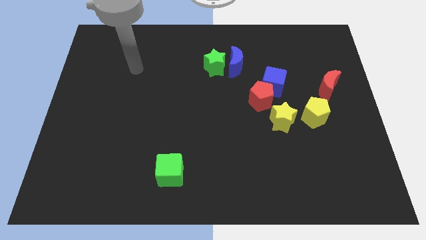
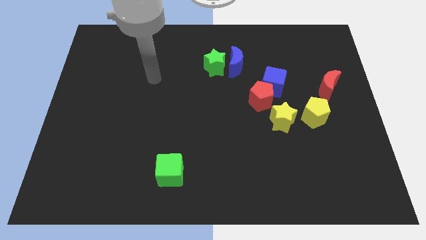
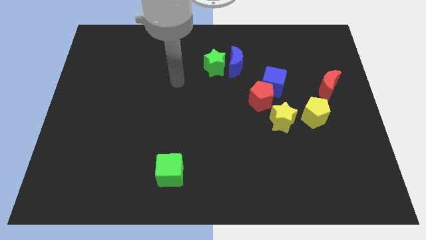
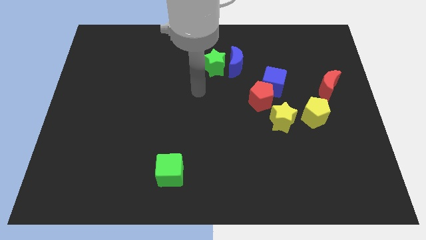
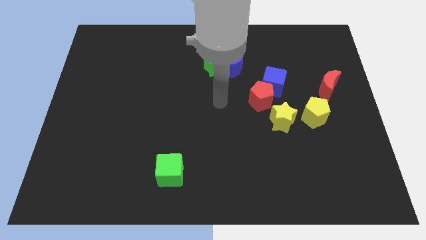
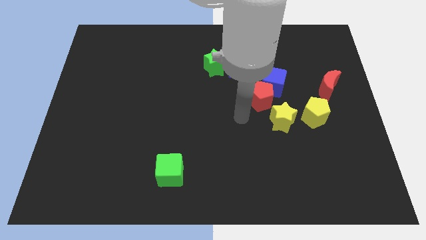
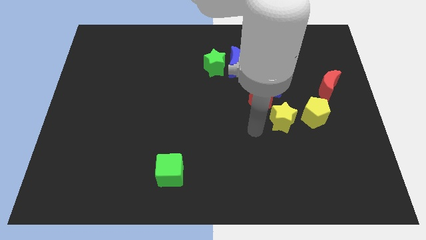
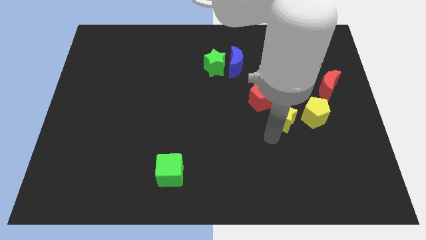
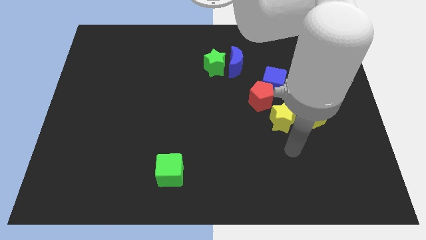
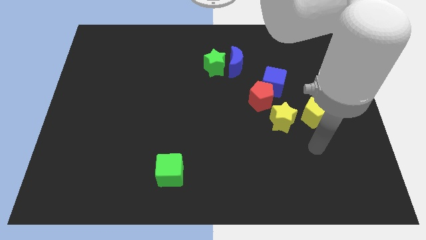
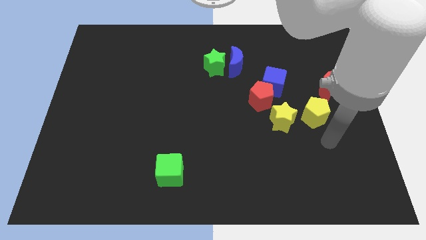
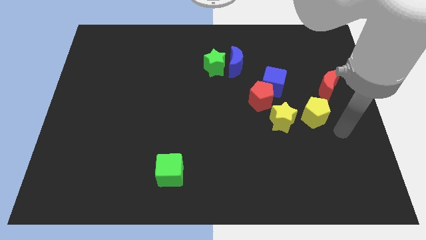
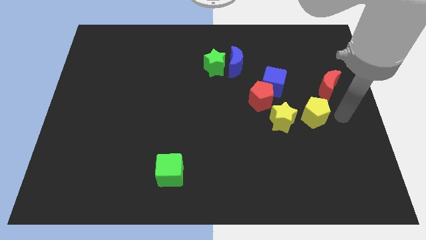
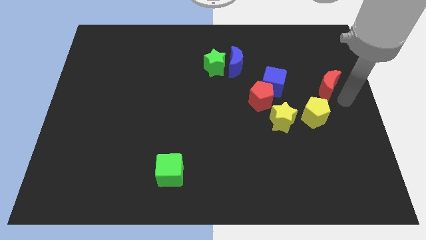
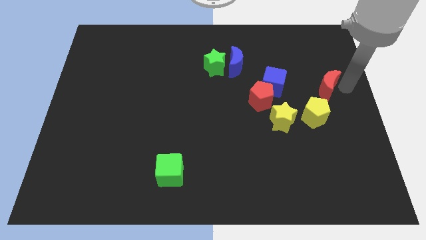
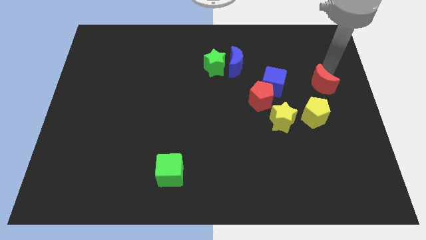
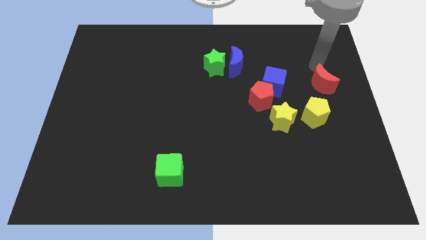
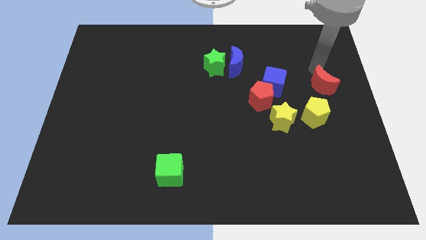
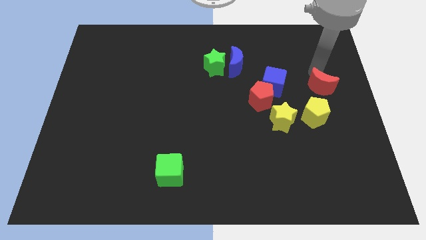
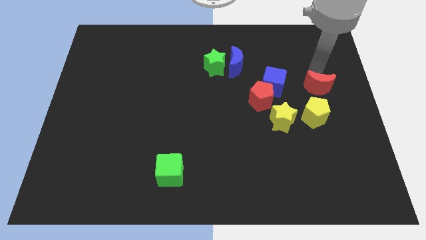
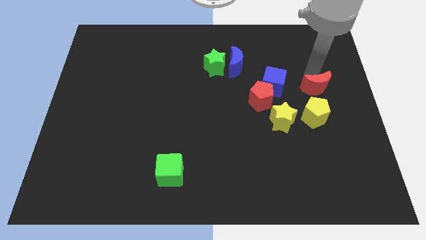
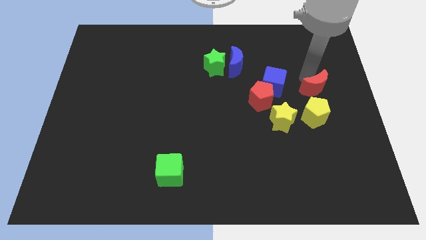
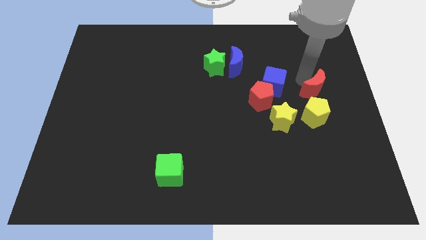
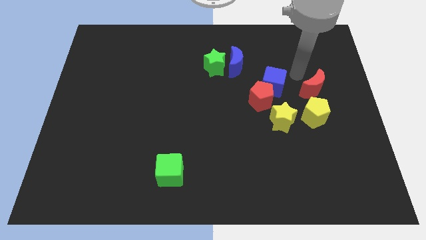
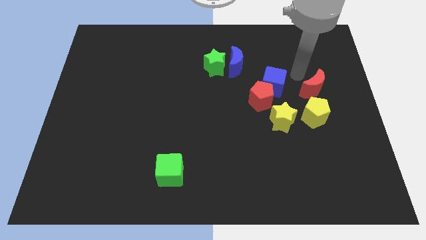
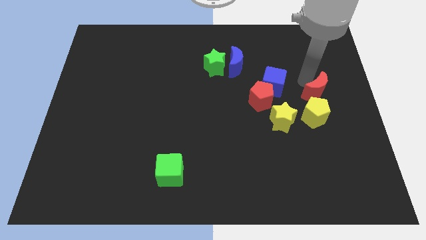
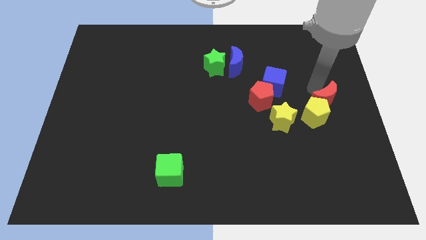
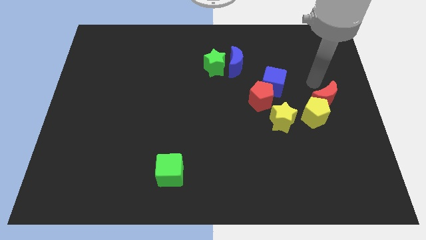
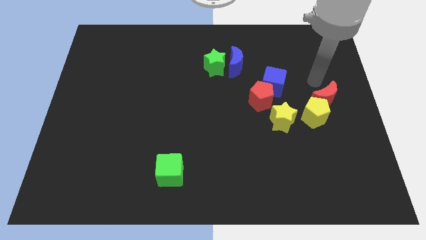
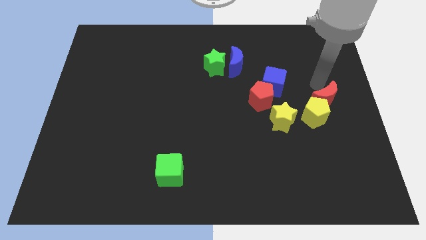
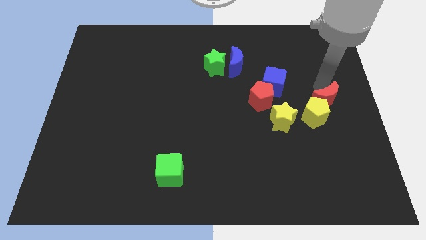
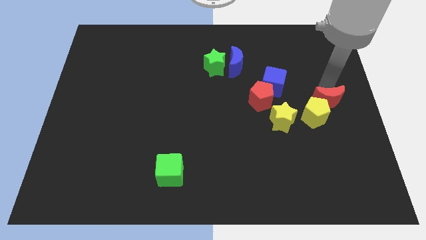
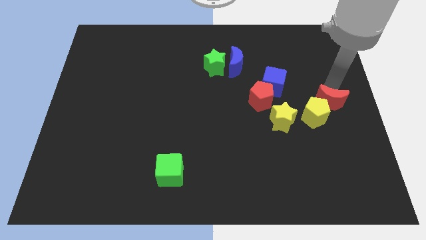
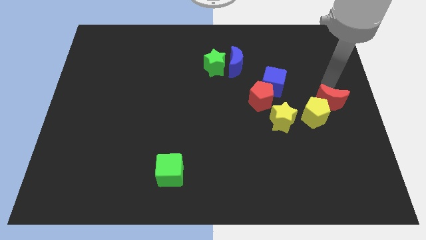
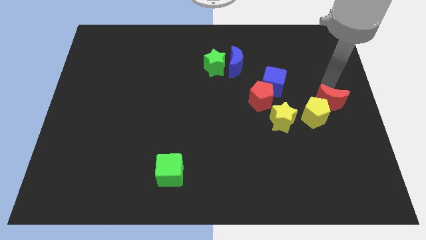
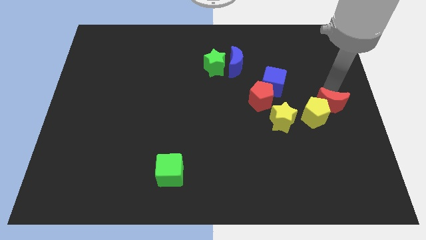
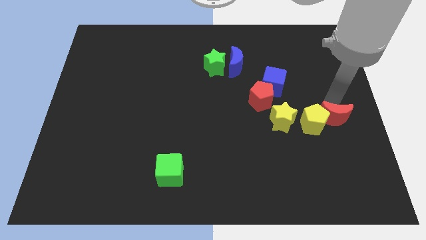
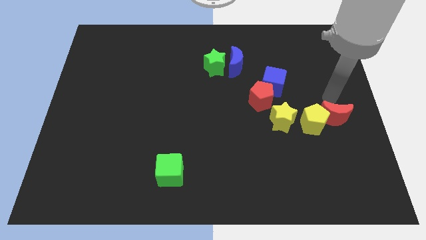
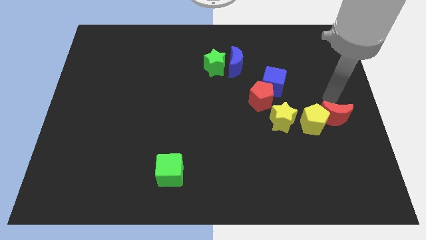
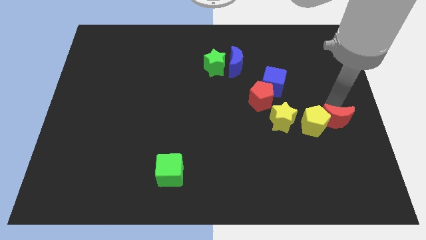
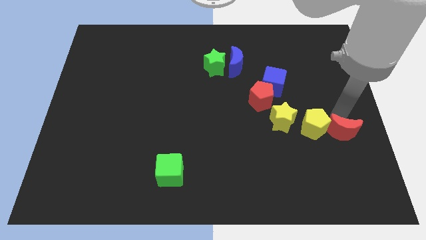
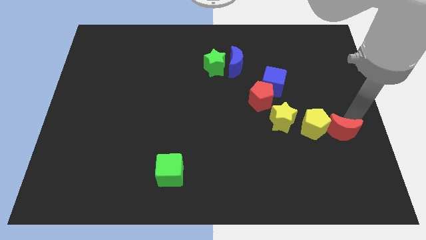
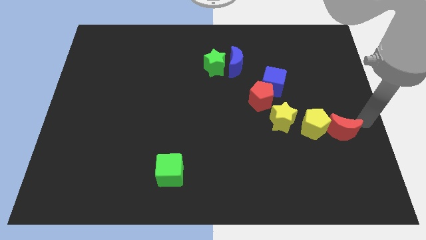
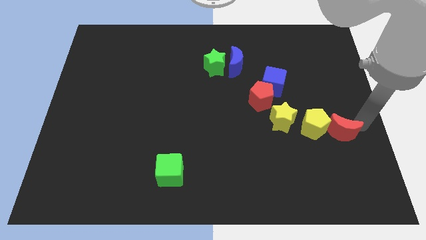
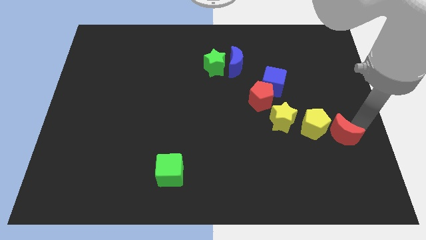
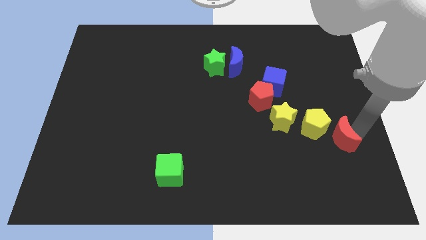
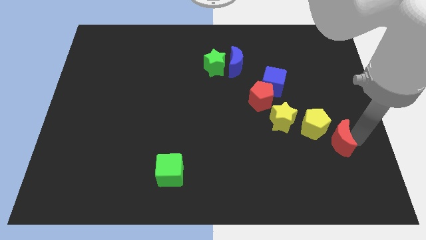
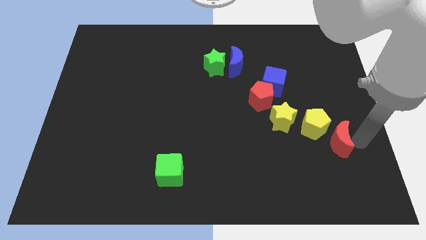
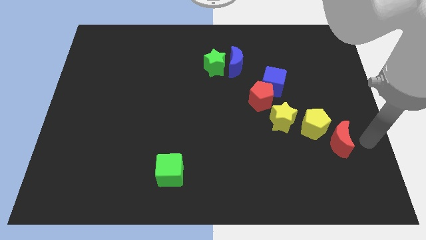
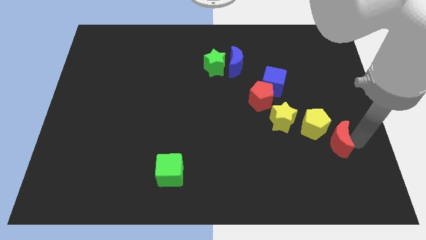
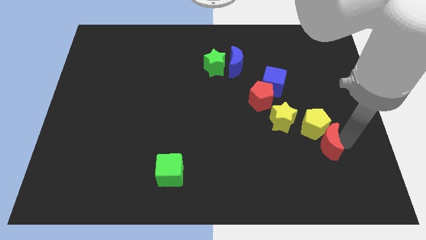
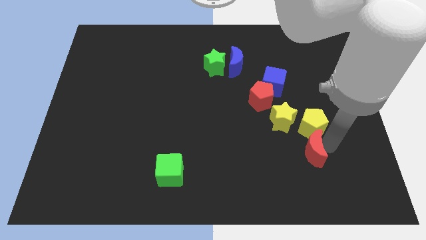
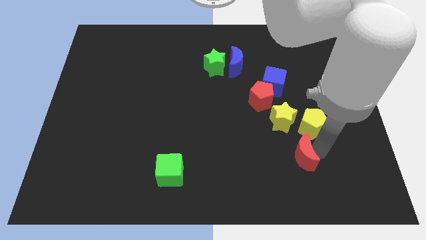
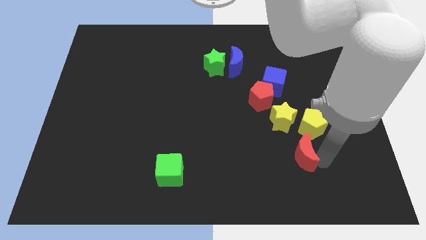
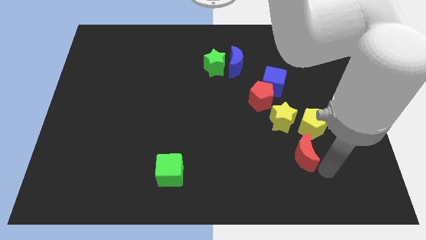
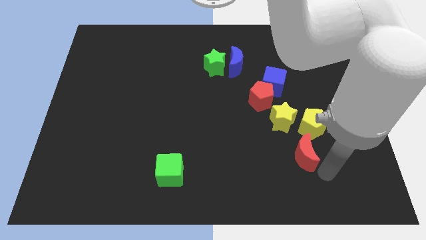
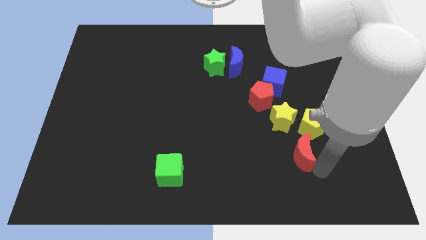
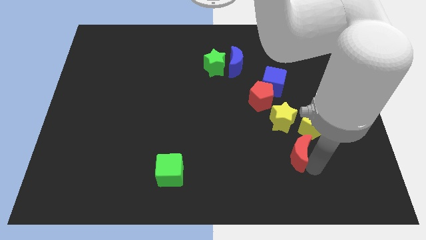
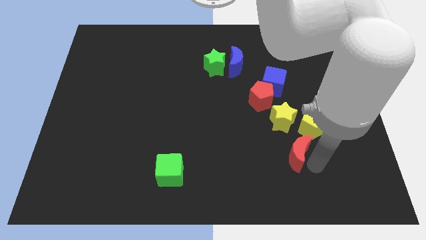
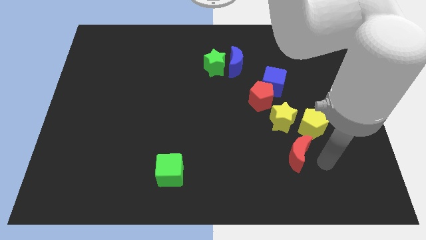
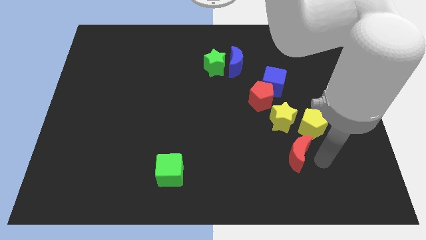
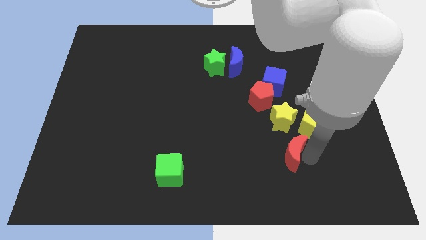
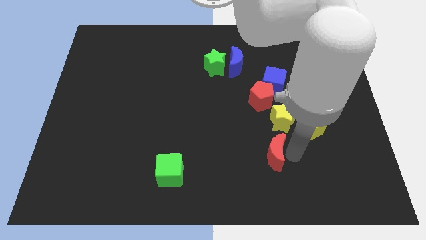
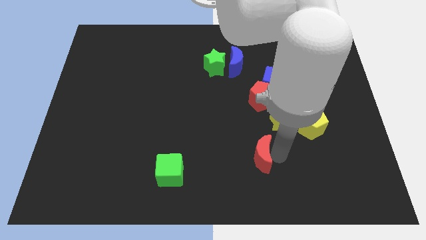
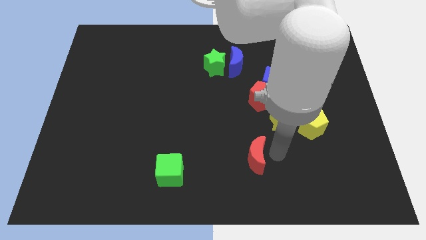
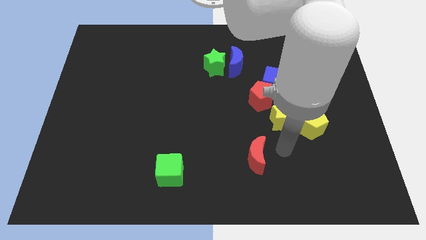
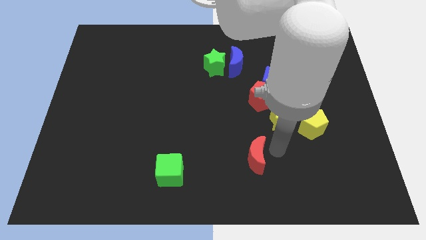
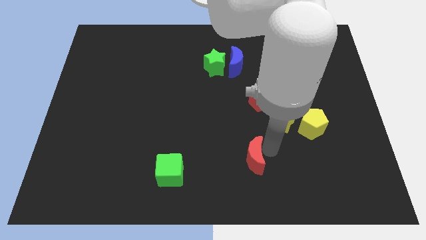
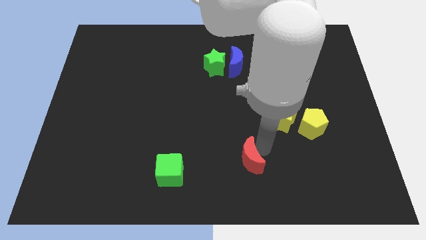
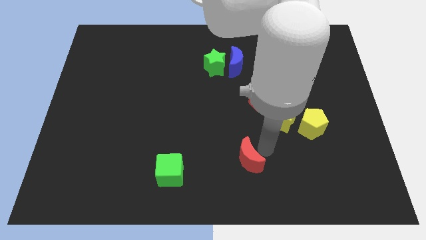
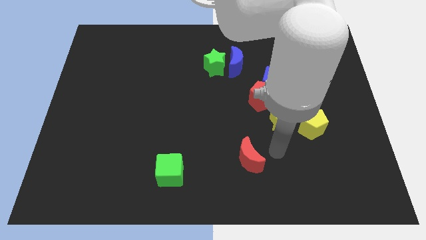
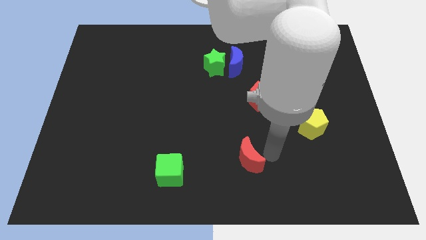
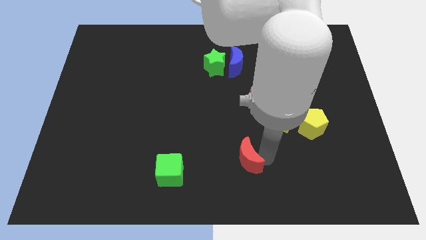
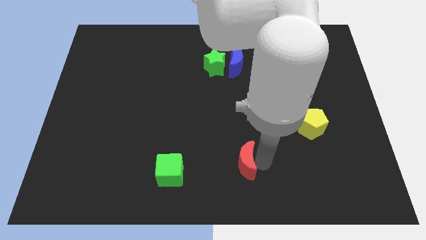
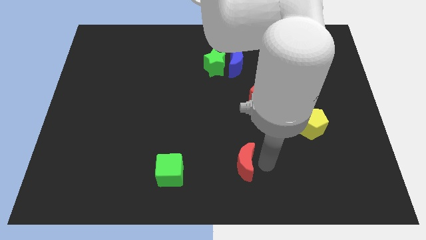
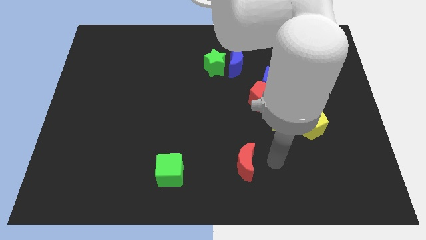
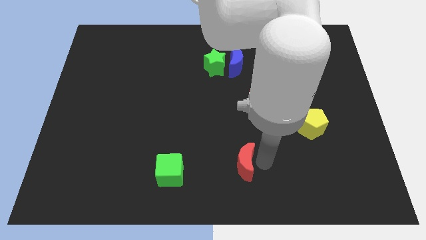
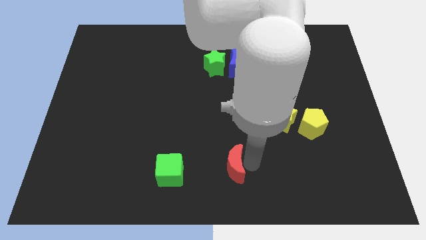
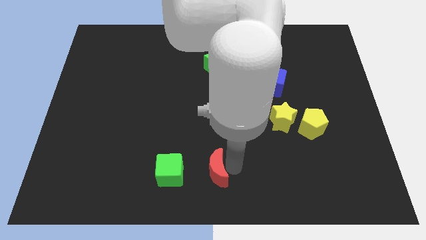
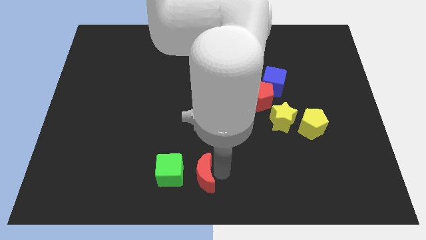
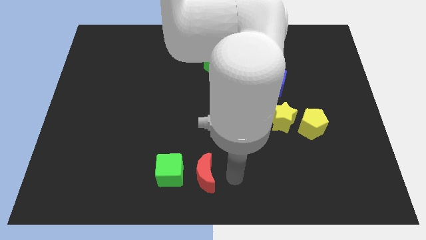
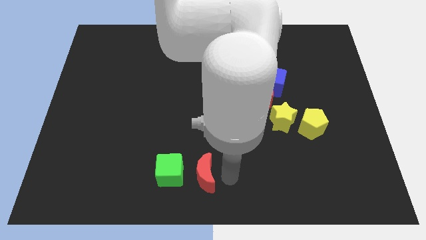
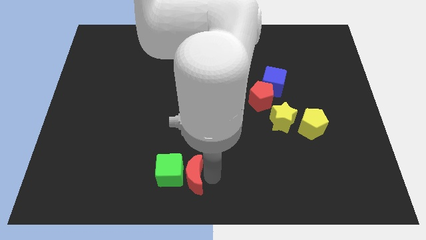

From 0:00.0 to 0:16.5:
push the red moon to the green cube
